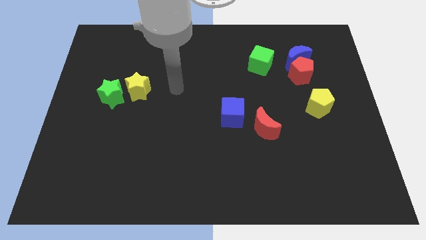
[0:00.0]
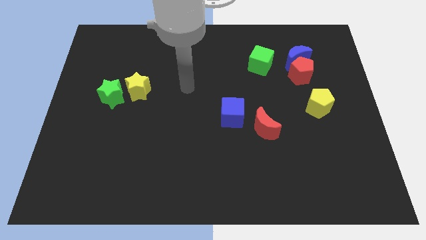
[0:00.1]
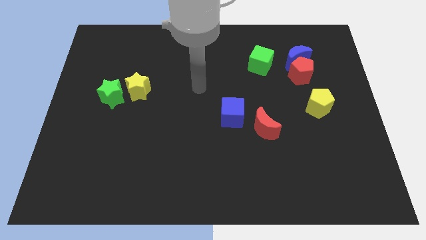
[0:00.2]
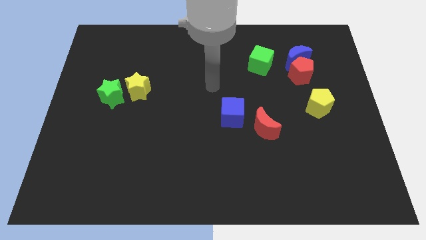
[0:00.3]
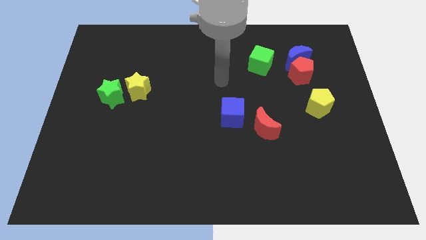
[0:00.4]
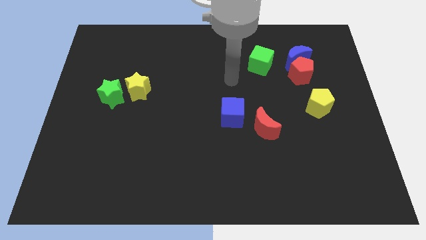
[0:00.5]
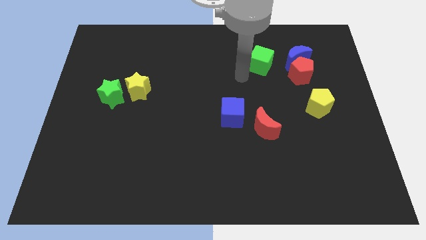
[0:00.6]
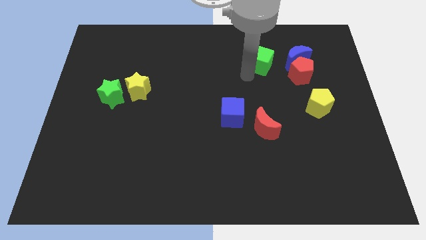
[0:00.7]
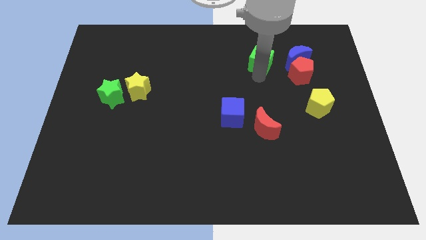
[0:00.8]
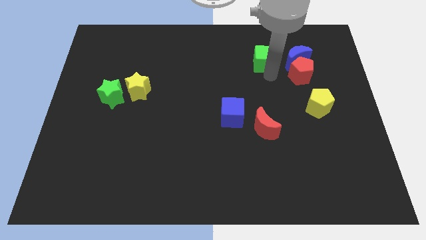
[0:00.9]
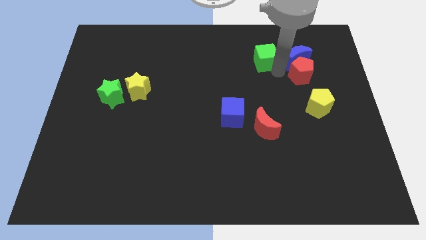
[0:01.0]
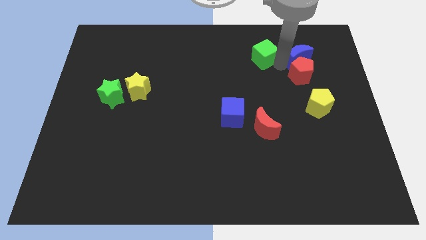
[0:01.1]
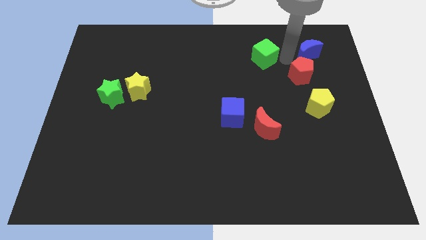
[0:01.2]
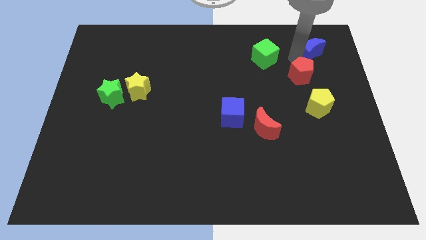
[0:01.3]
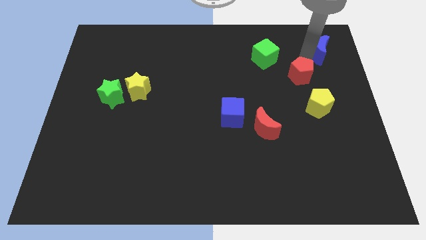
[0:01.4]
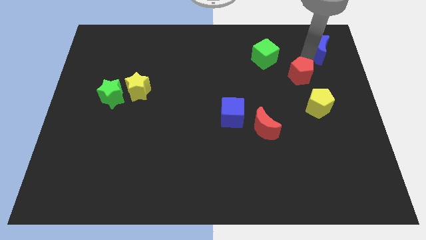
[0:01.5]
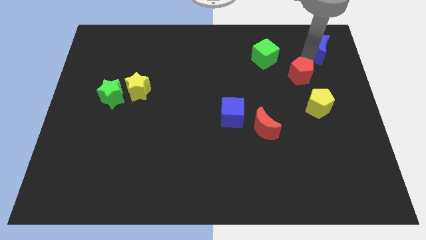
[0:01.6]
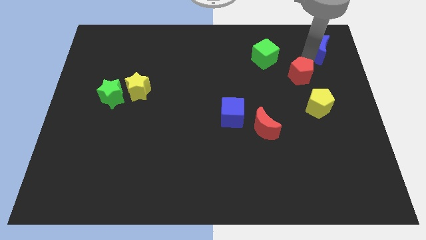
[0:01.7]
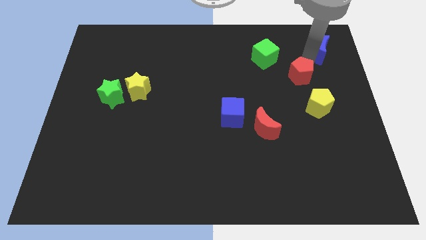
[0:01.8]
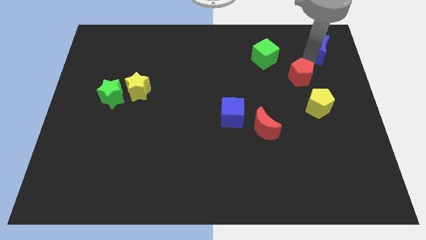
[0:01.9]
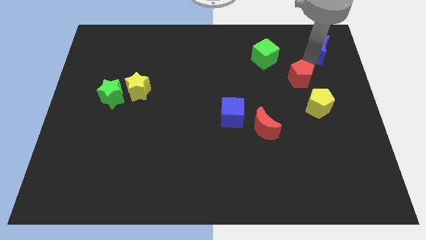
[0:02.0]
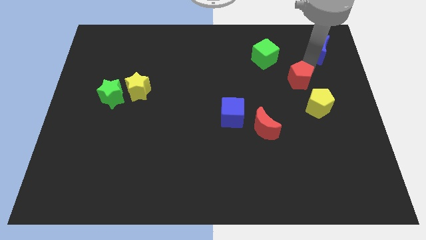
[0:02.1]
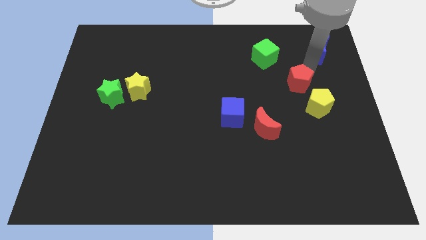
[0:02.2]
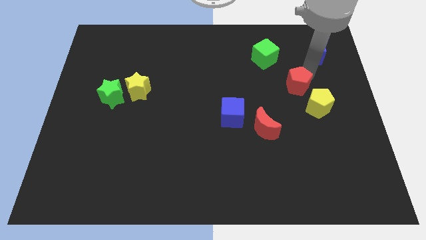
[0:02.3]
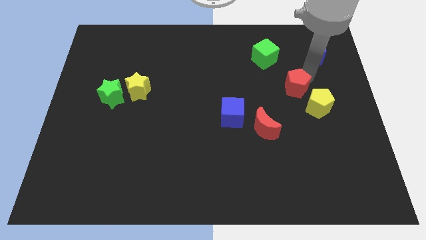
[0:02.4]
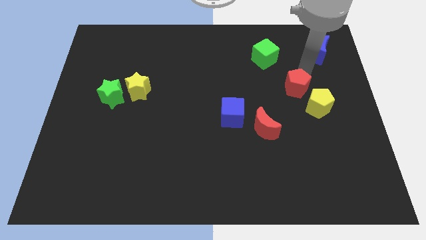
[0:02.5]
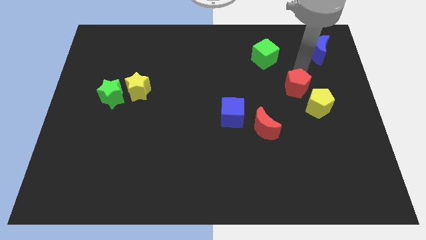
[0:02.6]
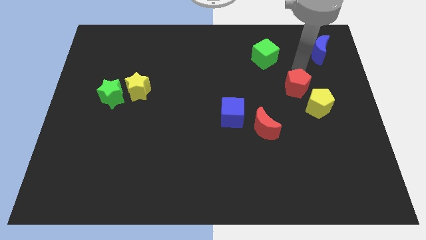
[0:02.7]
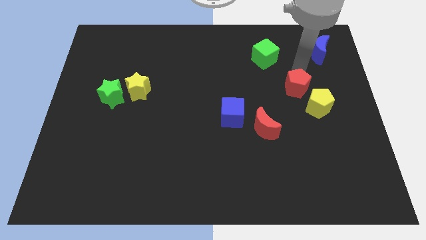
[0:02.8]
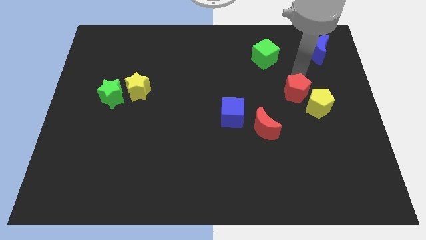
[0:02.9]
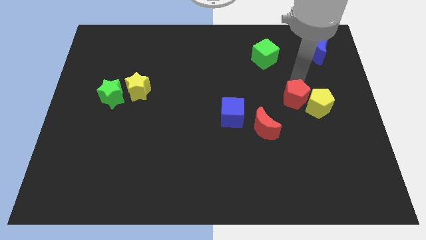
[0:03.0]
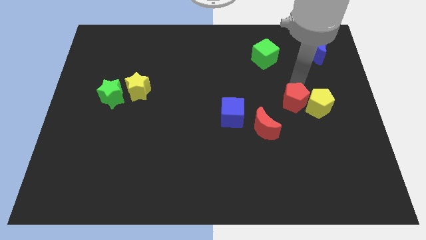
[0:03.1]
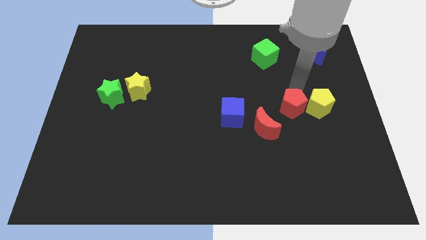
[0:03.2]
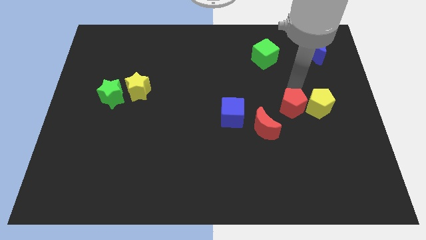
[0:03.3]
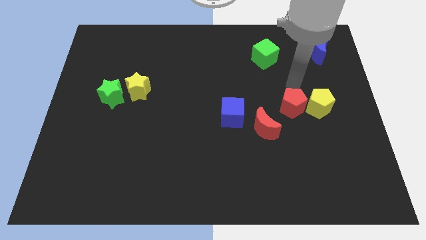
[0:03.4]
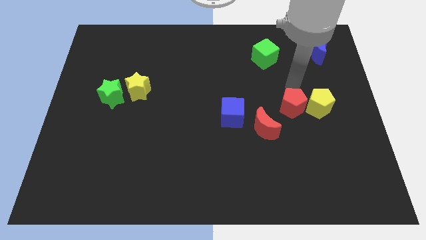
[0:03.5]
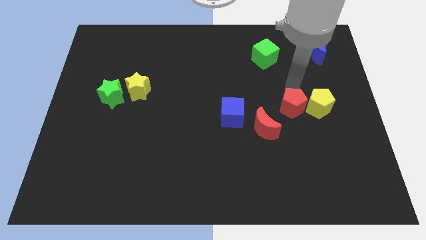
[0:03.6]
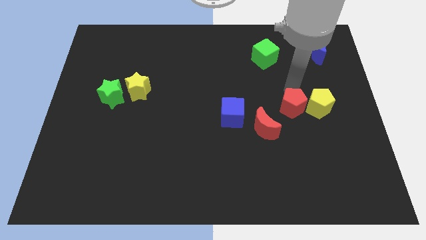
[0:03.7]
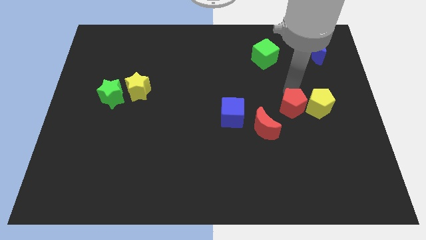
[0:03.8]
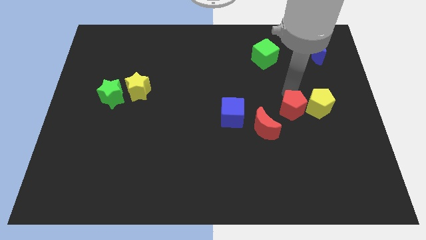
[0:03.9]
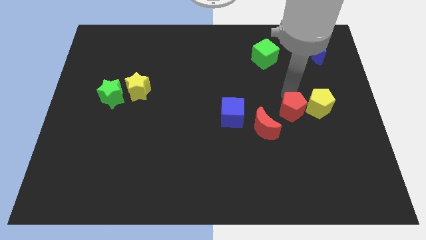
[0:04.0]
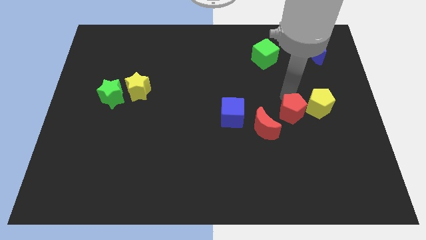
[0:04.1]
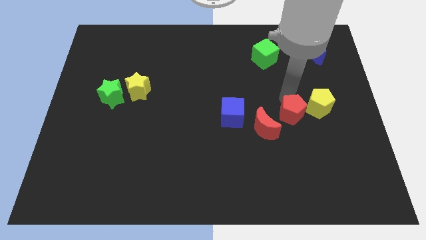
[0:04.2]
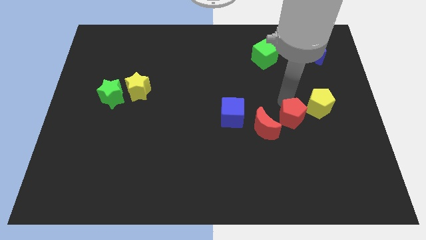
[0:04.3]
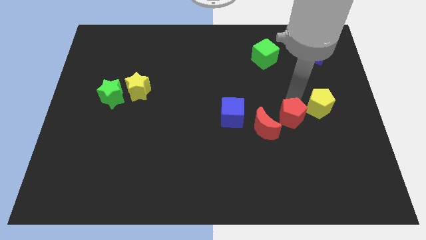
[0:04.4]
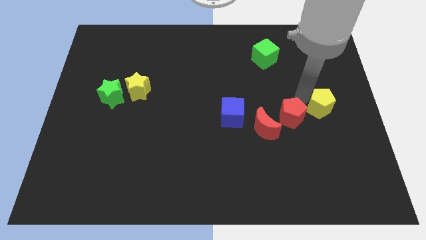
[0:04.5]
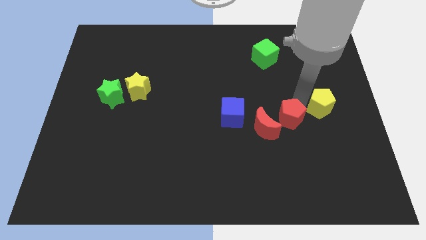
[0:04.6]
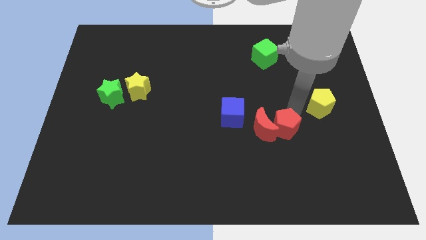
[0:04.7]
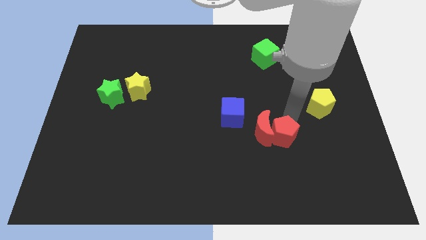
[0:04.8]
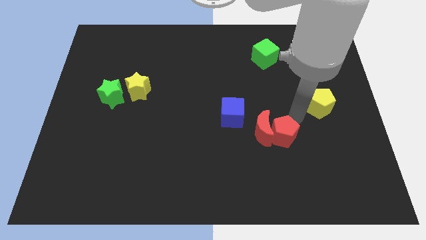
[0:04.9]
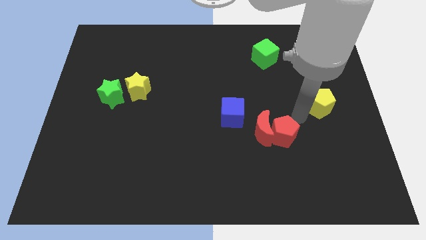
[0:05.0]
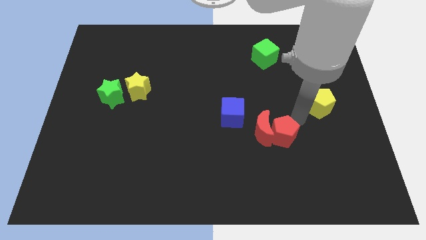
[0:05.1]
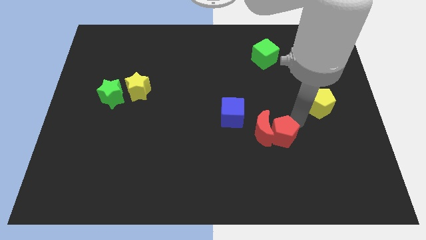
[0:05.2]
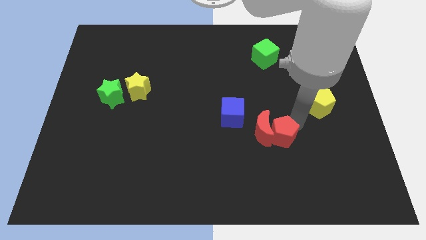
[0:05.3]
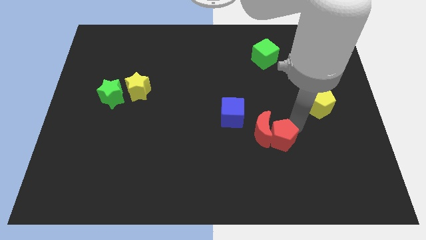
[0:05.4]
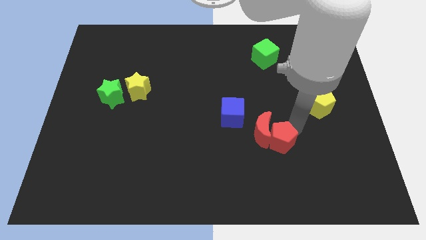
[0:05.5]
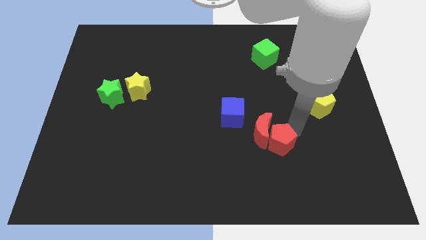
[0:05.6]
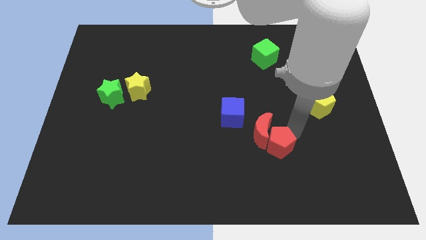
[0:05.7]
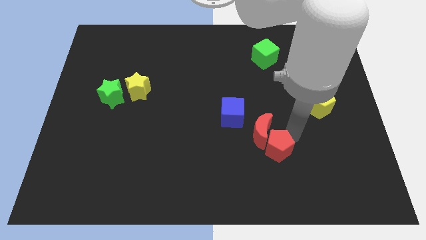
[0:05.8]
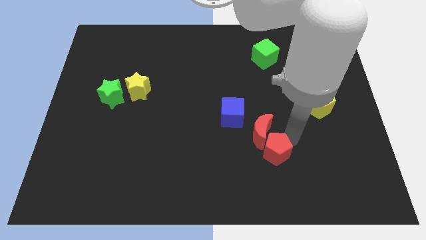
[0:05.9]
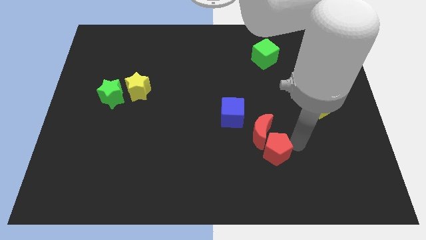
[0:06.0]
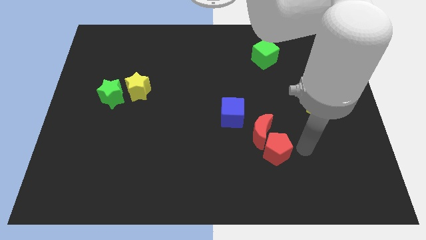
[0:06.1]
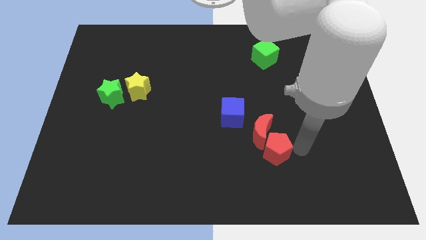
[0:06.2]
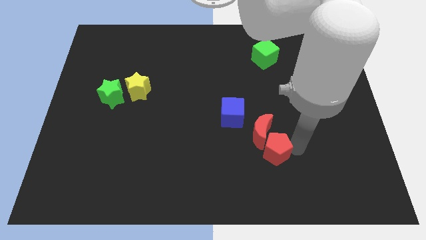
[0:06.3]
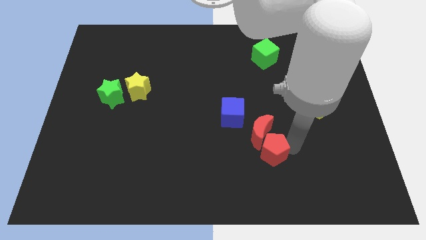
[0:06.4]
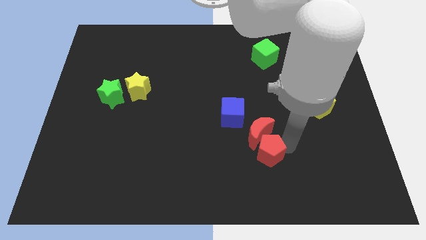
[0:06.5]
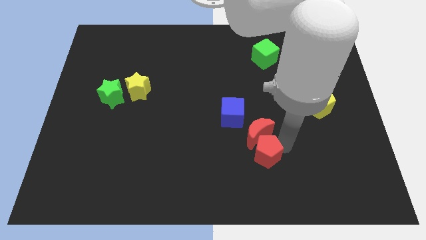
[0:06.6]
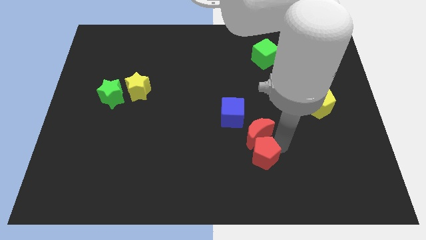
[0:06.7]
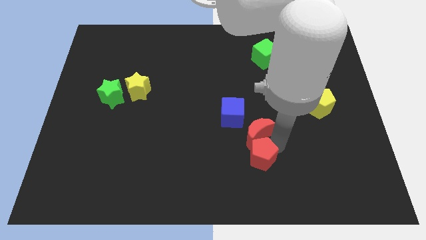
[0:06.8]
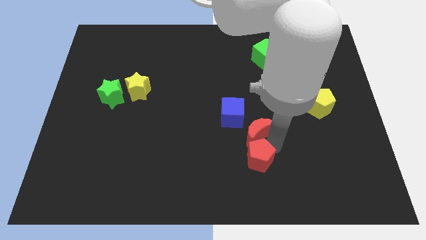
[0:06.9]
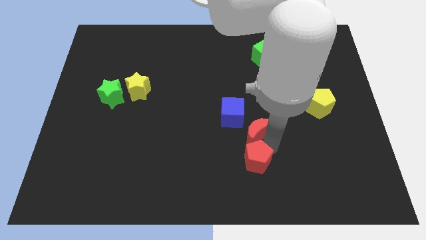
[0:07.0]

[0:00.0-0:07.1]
put the red pentagon to the bottom of the blue cube
